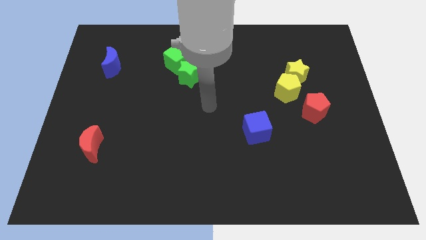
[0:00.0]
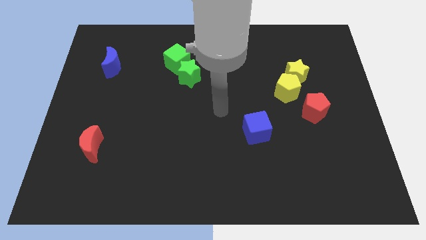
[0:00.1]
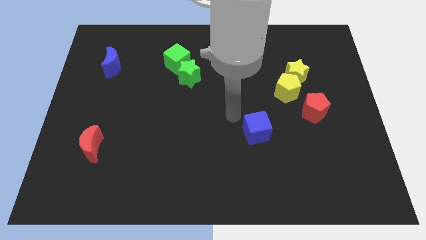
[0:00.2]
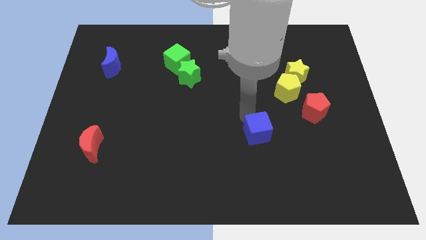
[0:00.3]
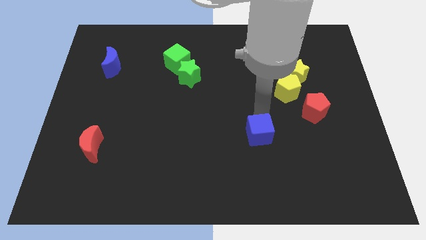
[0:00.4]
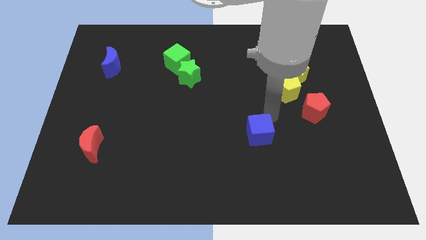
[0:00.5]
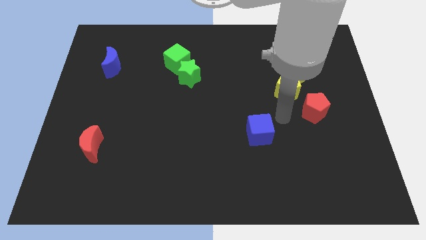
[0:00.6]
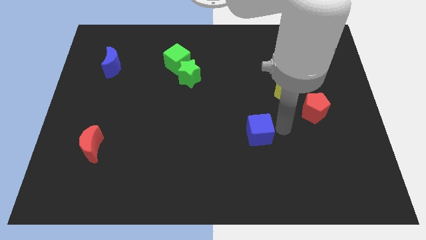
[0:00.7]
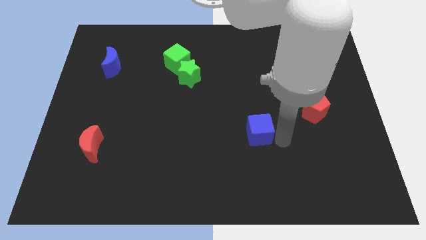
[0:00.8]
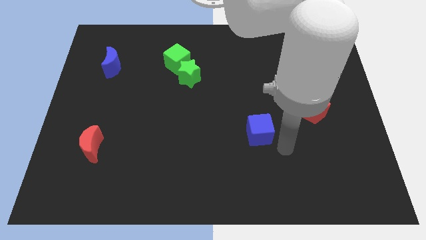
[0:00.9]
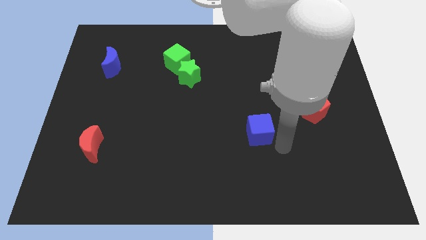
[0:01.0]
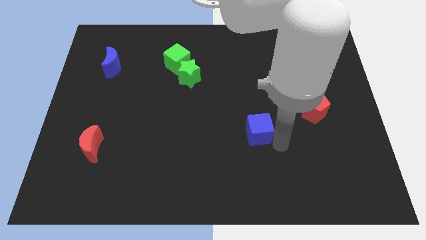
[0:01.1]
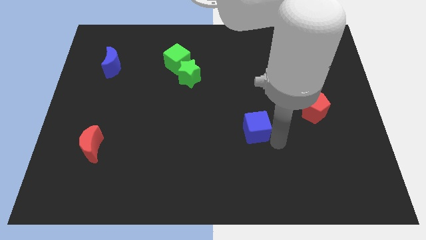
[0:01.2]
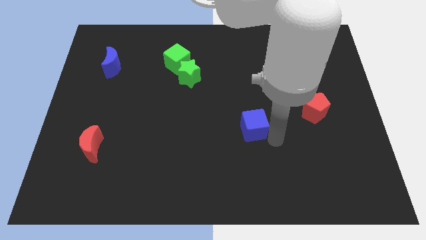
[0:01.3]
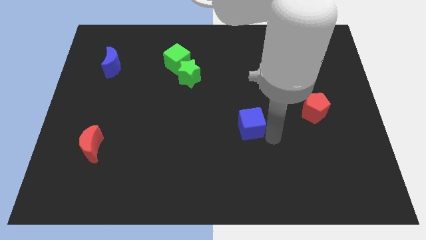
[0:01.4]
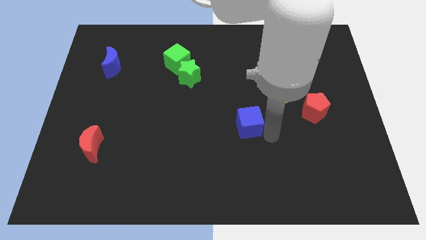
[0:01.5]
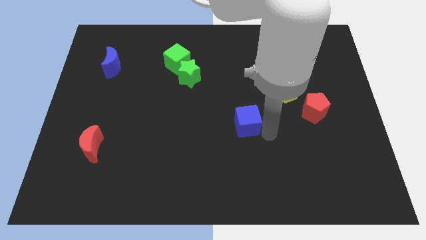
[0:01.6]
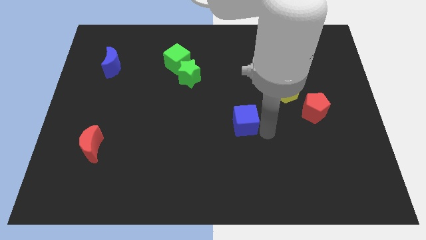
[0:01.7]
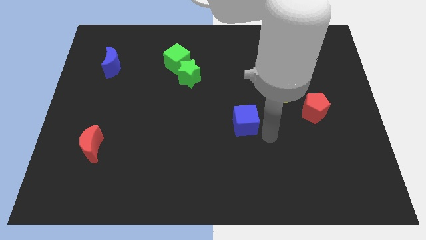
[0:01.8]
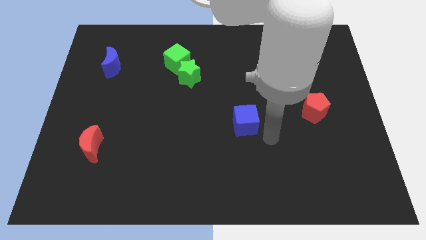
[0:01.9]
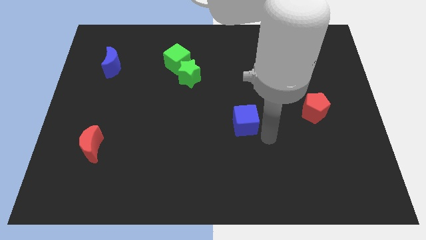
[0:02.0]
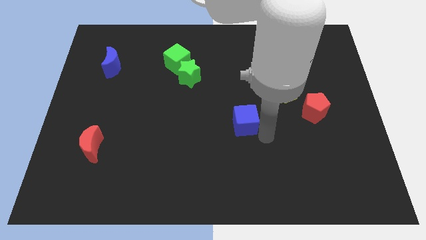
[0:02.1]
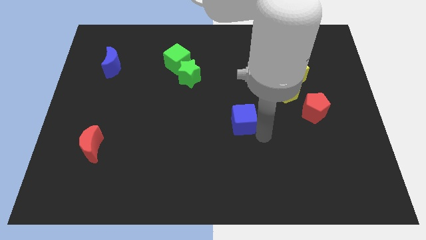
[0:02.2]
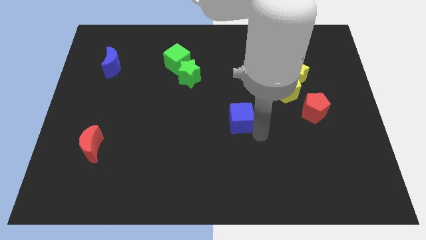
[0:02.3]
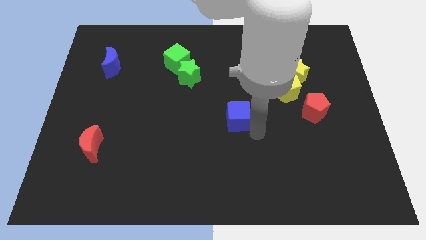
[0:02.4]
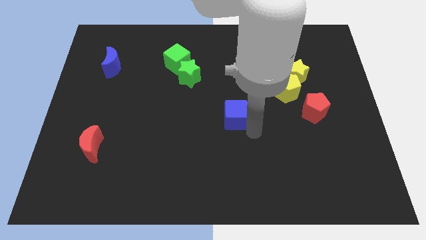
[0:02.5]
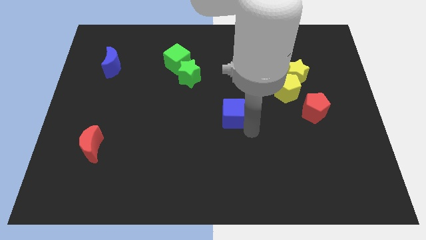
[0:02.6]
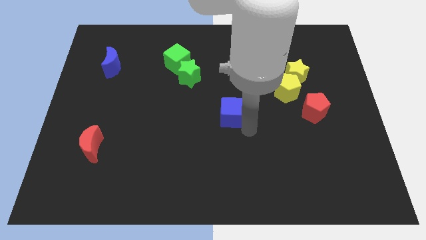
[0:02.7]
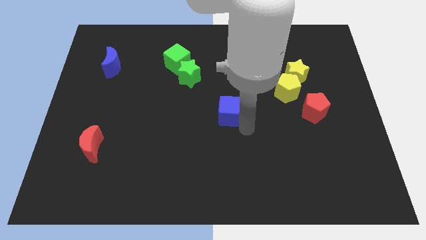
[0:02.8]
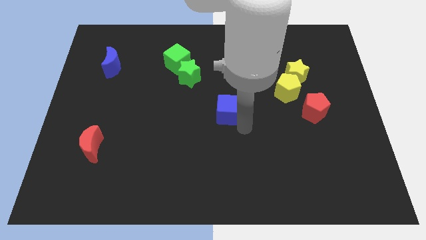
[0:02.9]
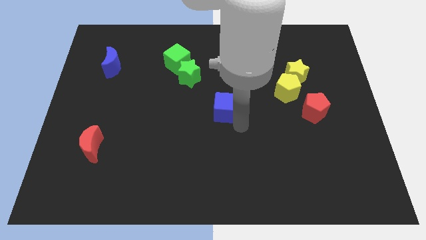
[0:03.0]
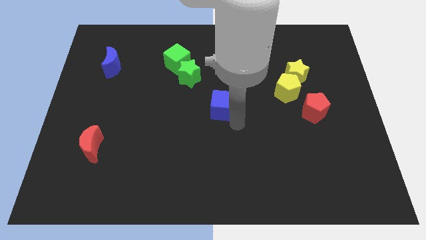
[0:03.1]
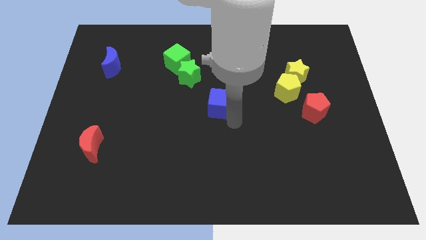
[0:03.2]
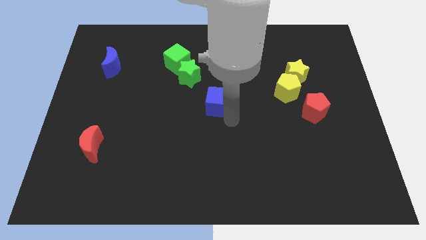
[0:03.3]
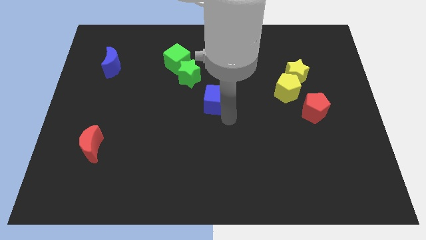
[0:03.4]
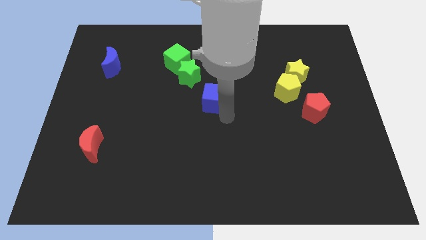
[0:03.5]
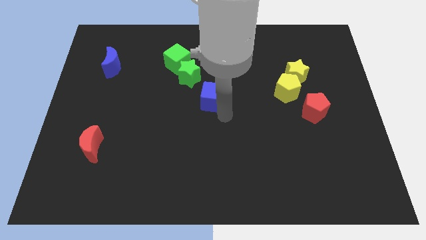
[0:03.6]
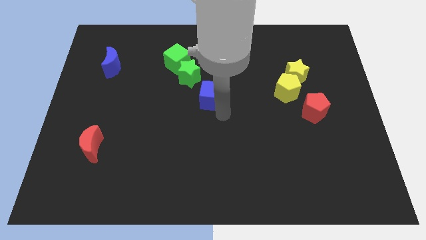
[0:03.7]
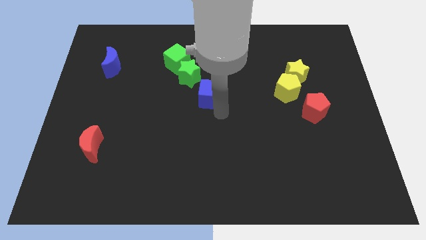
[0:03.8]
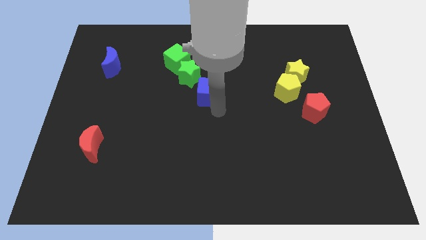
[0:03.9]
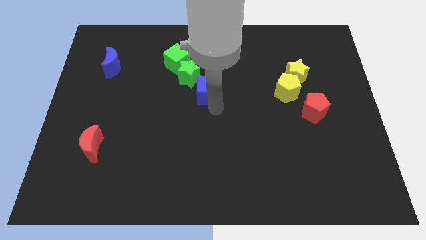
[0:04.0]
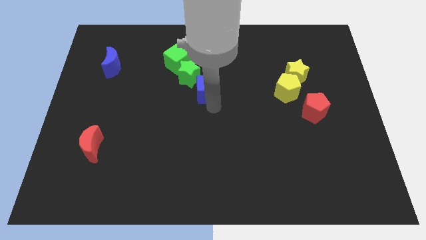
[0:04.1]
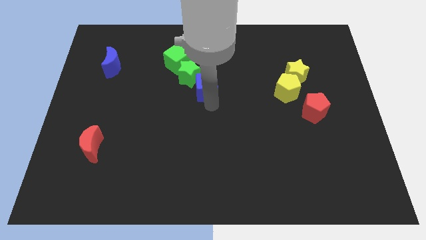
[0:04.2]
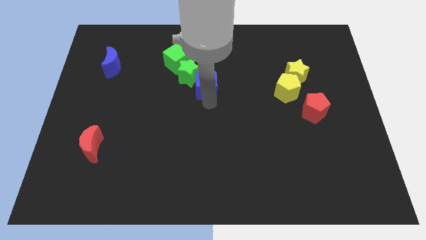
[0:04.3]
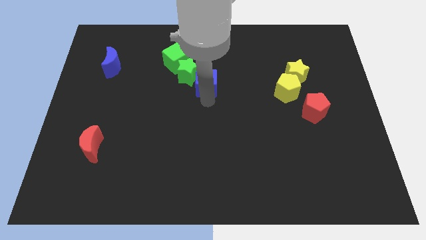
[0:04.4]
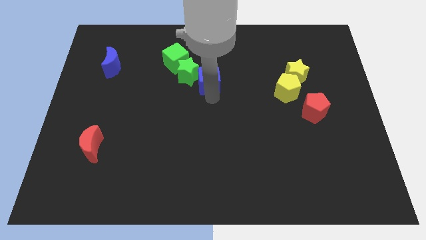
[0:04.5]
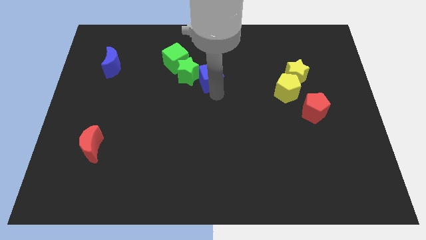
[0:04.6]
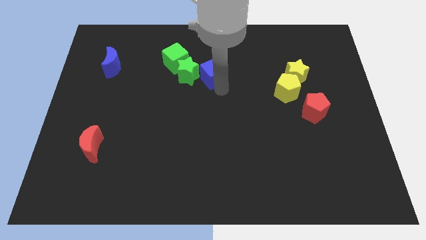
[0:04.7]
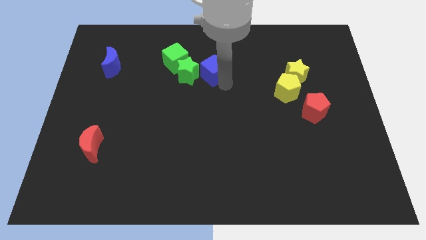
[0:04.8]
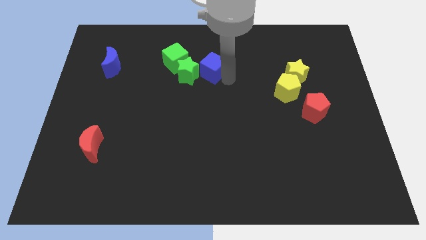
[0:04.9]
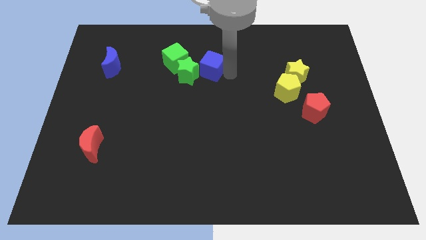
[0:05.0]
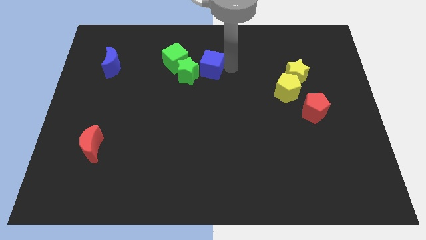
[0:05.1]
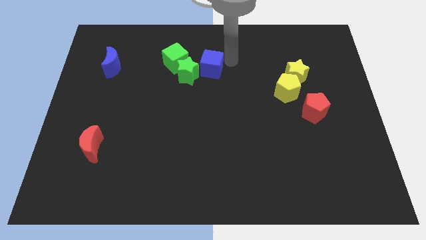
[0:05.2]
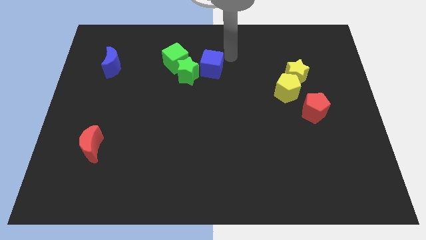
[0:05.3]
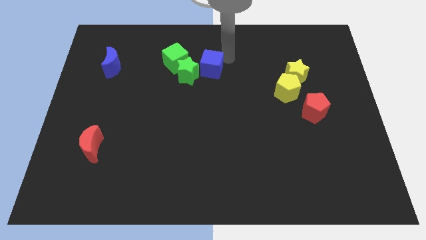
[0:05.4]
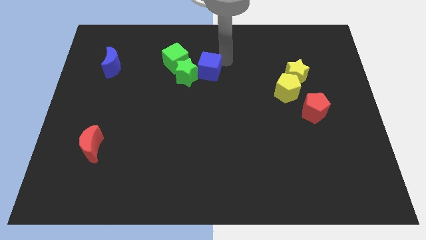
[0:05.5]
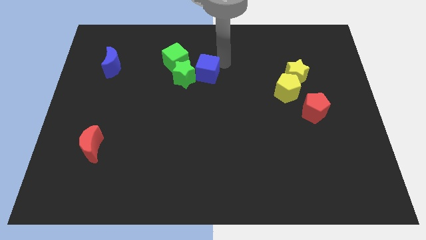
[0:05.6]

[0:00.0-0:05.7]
move the blue cube diagonally upwards and left

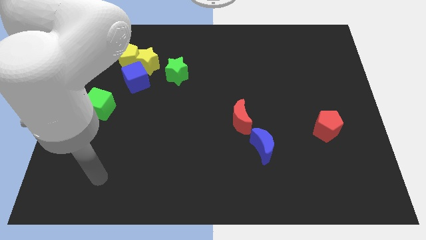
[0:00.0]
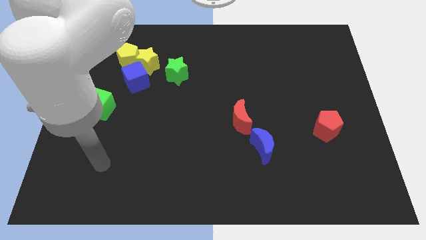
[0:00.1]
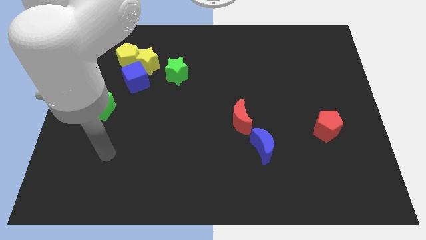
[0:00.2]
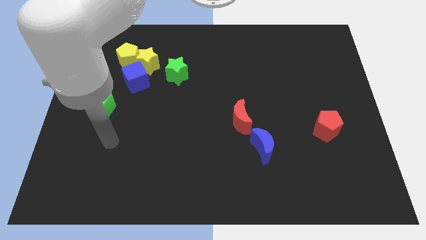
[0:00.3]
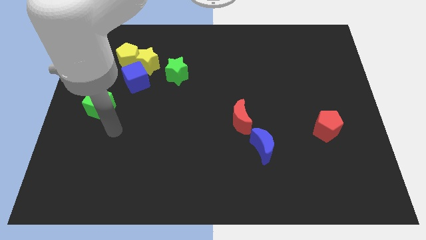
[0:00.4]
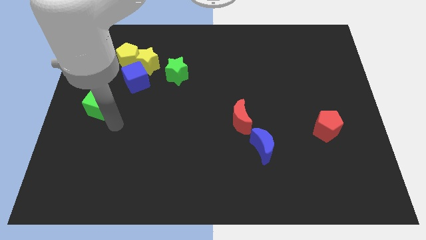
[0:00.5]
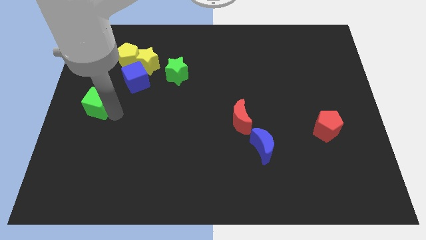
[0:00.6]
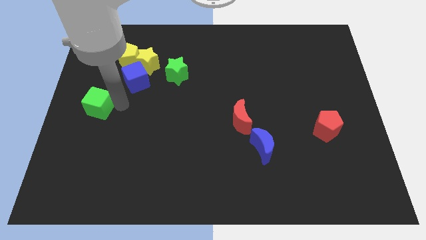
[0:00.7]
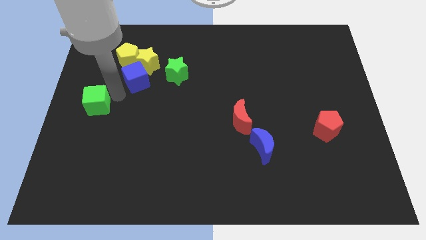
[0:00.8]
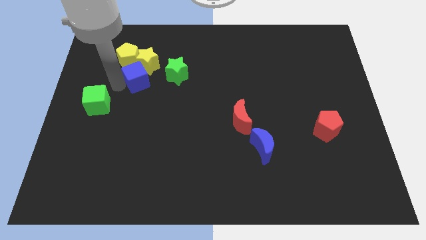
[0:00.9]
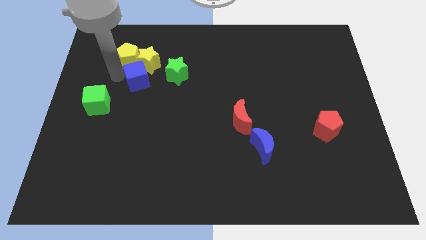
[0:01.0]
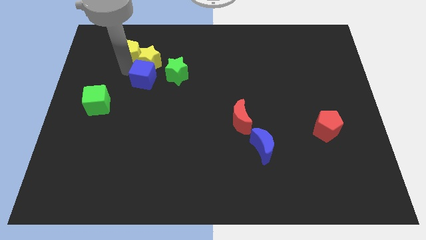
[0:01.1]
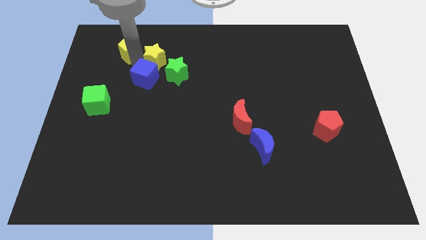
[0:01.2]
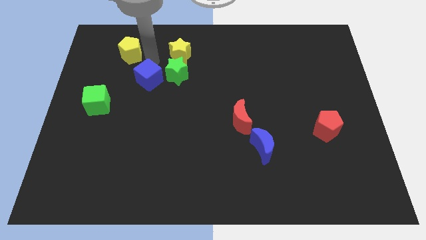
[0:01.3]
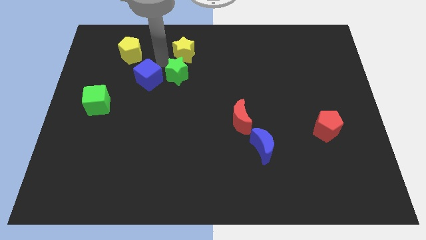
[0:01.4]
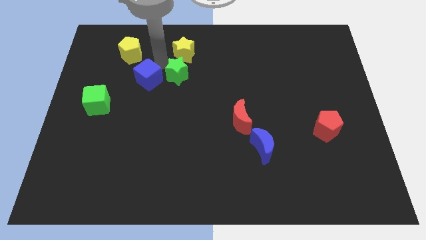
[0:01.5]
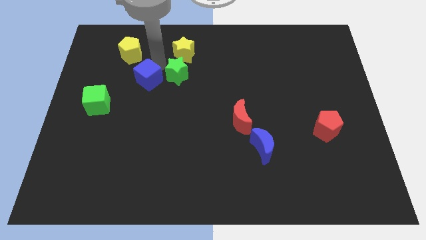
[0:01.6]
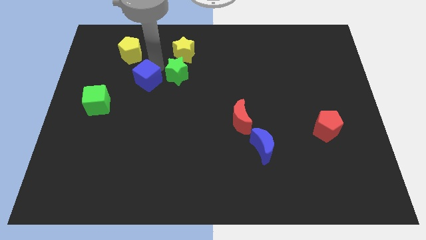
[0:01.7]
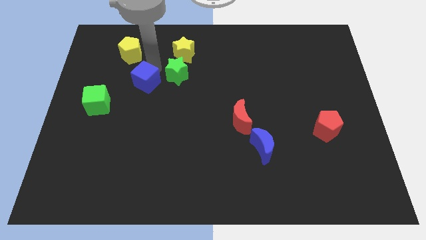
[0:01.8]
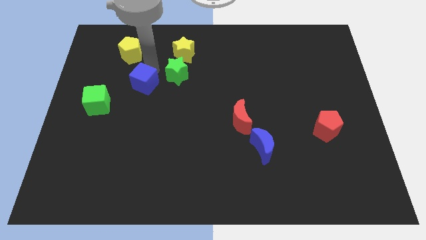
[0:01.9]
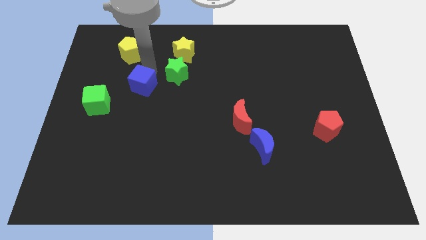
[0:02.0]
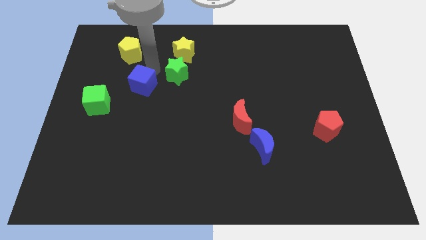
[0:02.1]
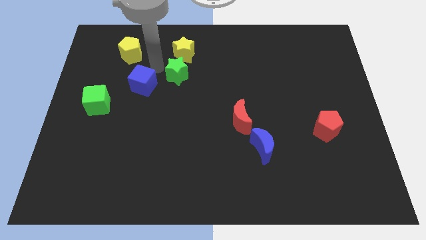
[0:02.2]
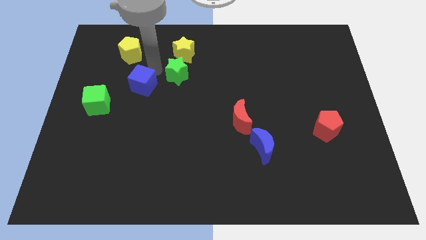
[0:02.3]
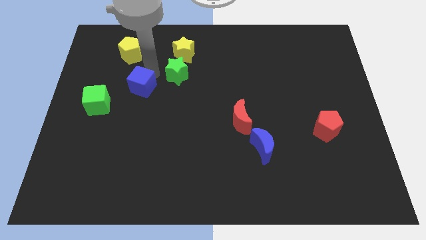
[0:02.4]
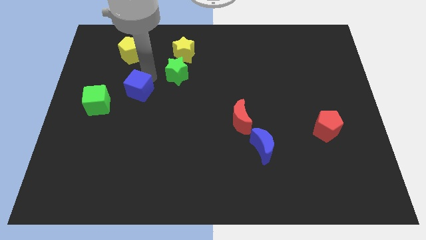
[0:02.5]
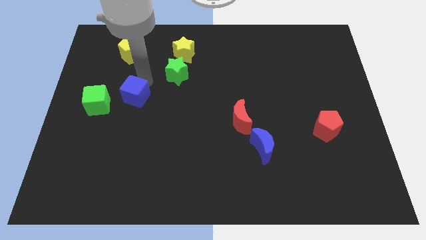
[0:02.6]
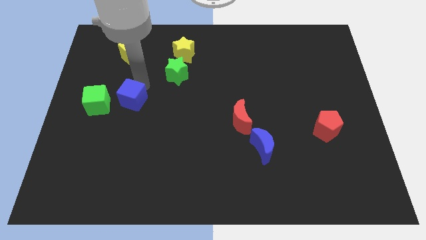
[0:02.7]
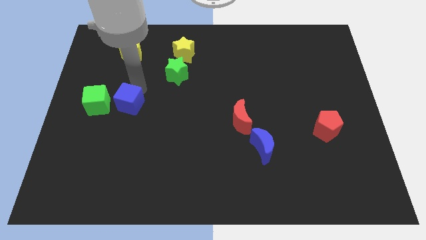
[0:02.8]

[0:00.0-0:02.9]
slightly move the blue cube down
